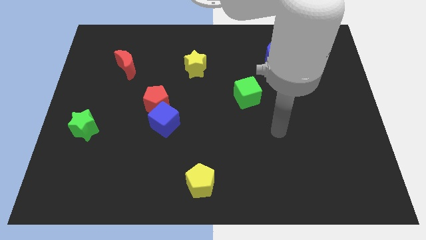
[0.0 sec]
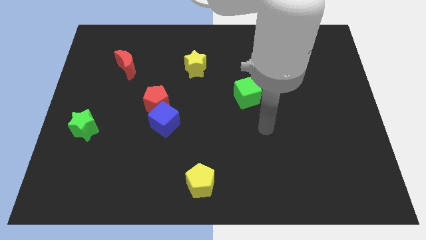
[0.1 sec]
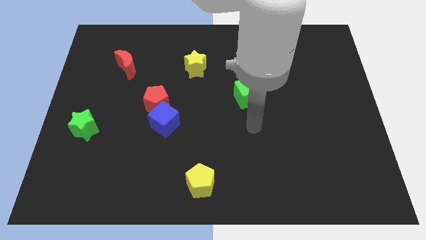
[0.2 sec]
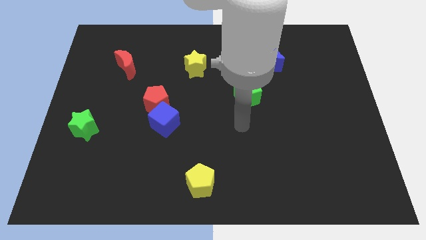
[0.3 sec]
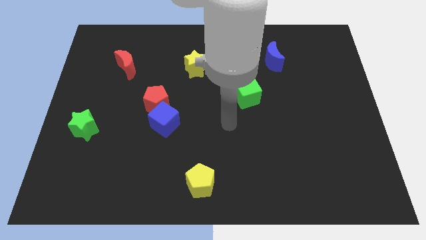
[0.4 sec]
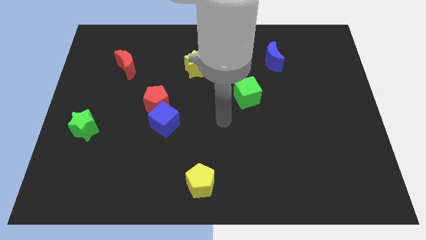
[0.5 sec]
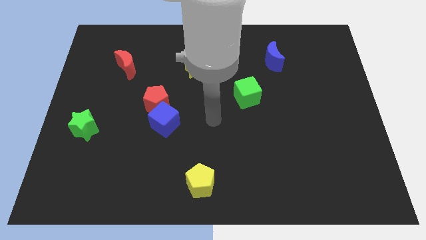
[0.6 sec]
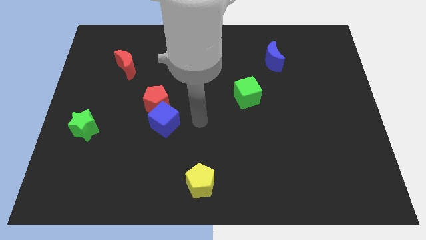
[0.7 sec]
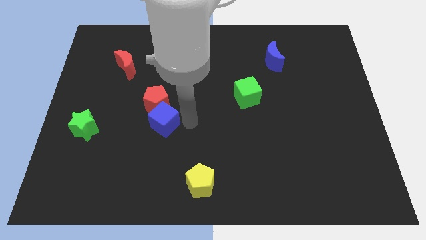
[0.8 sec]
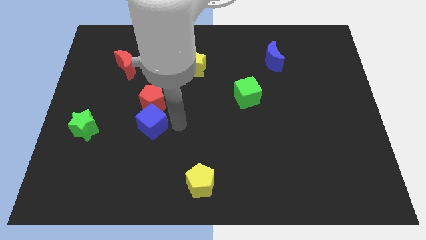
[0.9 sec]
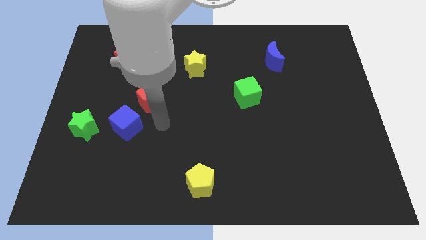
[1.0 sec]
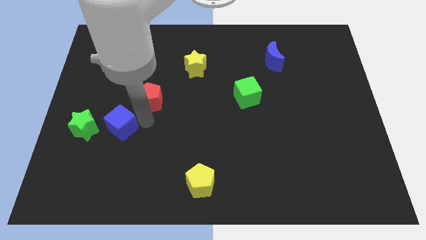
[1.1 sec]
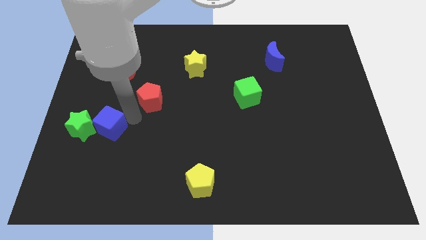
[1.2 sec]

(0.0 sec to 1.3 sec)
move the red pentagon away from the blue cube

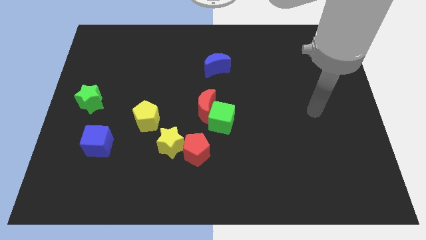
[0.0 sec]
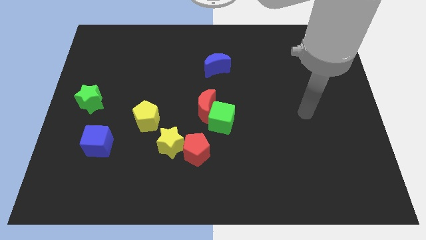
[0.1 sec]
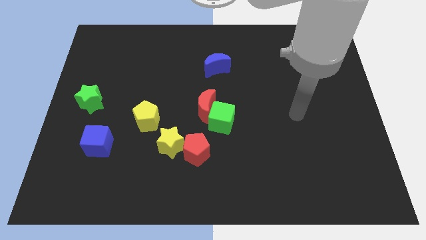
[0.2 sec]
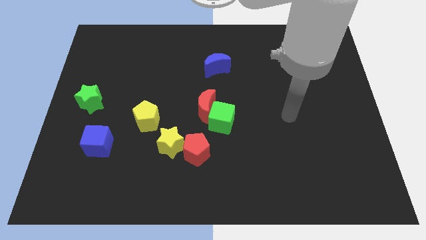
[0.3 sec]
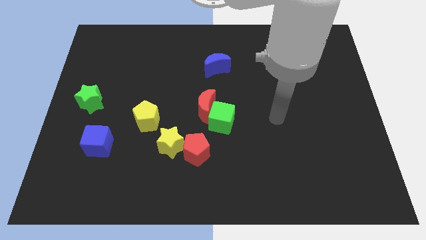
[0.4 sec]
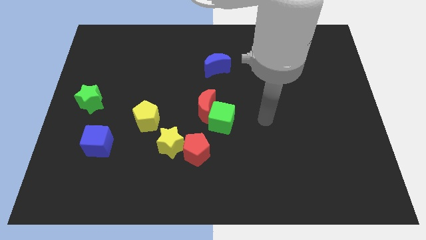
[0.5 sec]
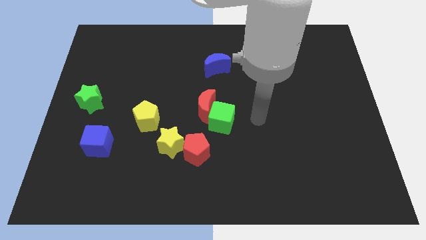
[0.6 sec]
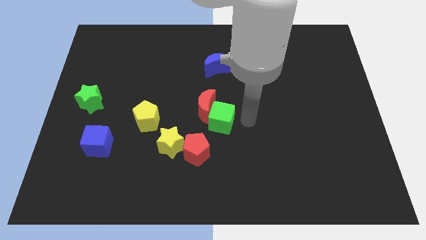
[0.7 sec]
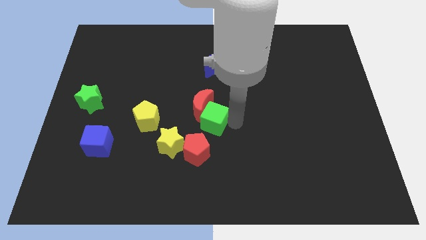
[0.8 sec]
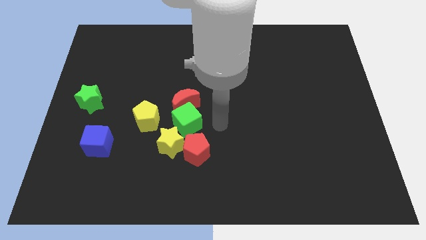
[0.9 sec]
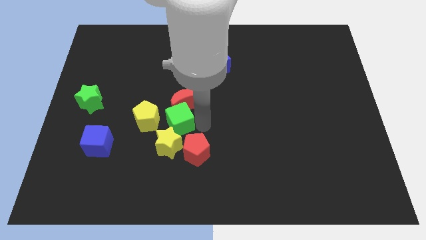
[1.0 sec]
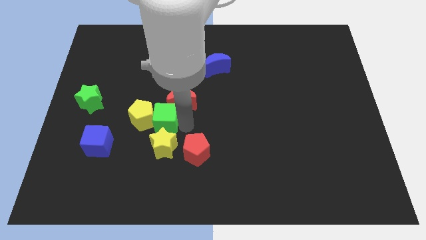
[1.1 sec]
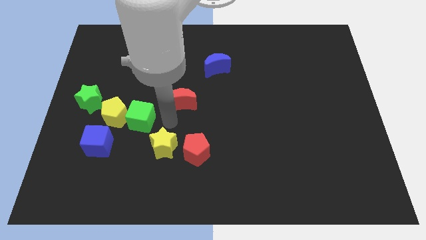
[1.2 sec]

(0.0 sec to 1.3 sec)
pull the red moon apart from the green cube

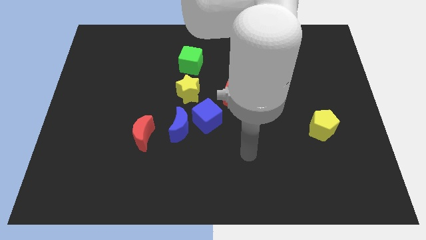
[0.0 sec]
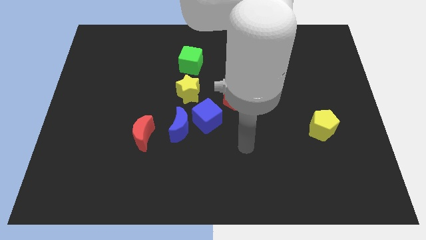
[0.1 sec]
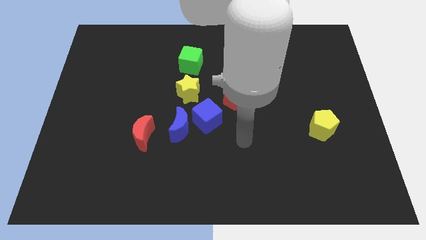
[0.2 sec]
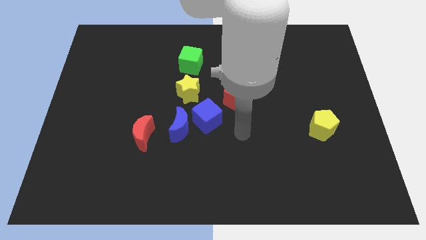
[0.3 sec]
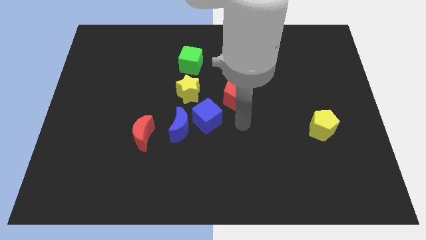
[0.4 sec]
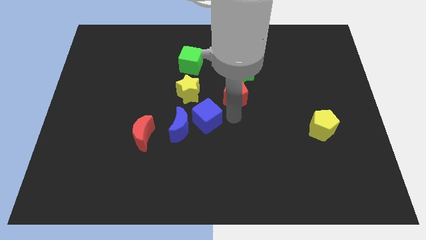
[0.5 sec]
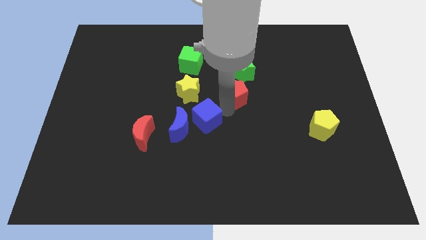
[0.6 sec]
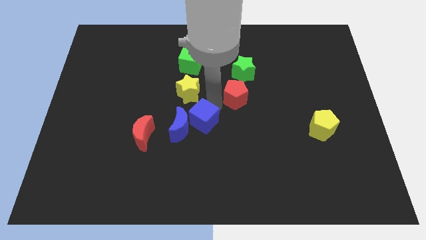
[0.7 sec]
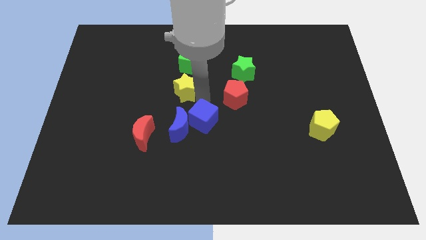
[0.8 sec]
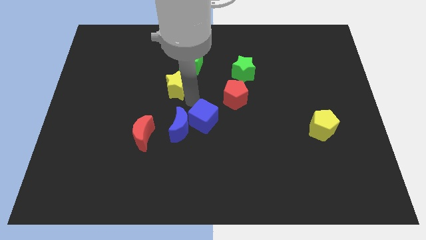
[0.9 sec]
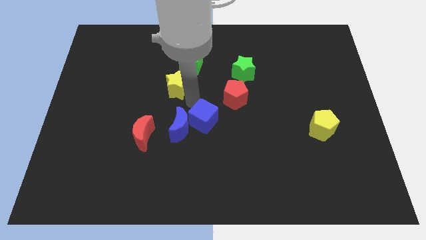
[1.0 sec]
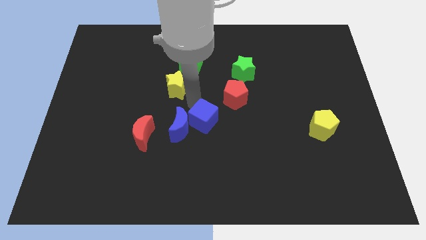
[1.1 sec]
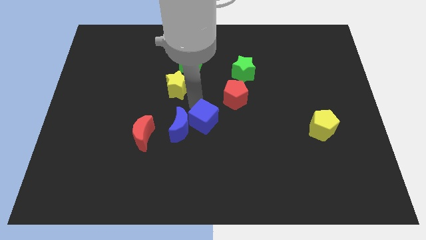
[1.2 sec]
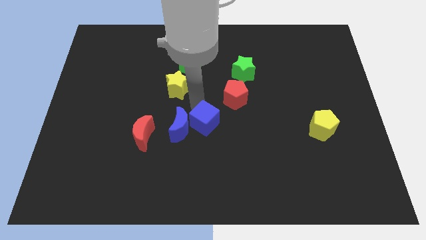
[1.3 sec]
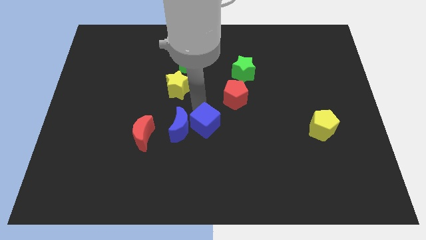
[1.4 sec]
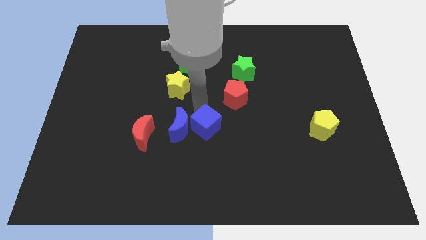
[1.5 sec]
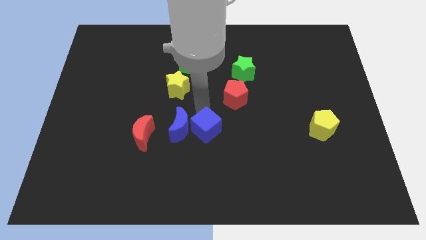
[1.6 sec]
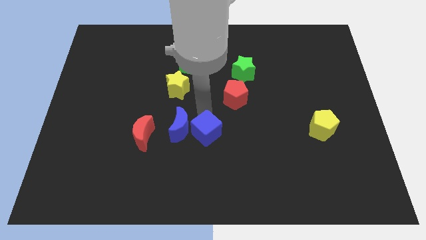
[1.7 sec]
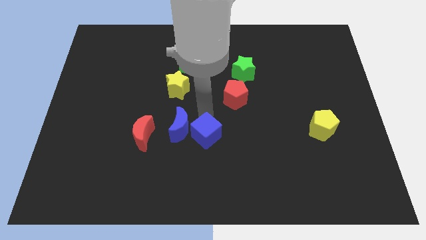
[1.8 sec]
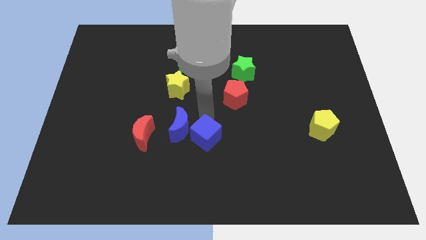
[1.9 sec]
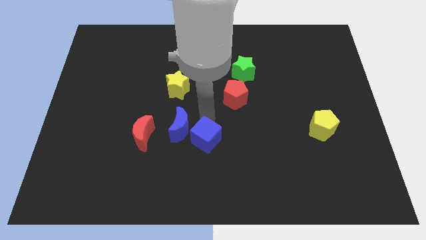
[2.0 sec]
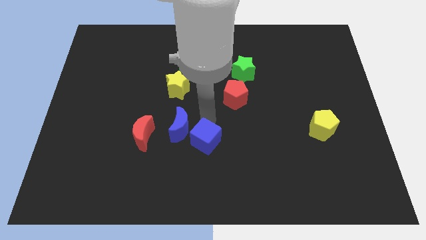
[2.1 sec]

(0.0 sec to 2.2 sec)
pull the blue cube apart from the group

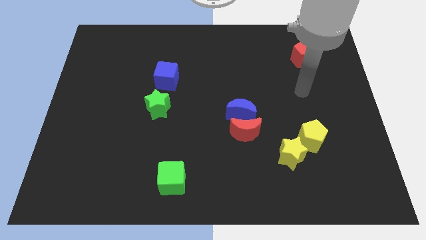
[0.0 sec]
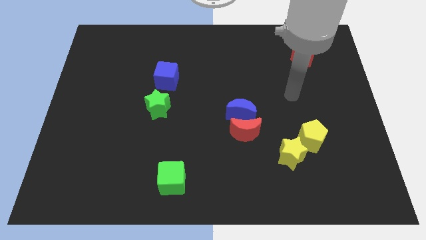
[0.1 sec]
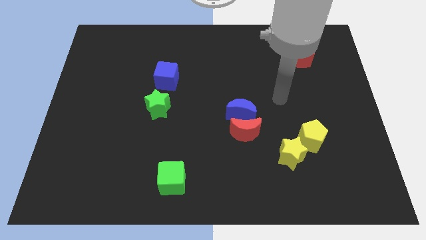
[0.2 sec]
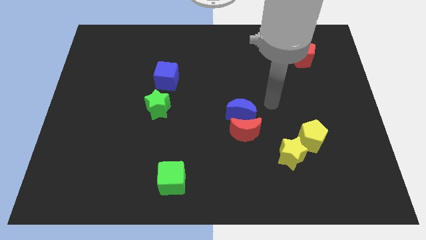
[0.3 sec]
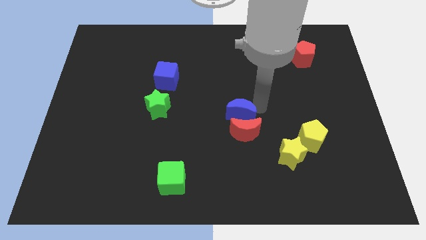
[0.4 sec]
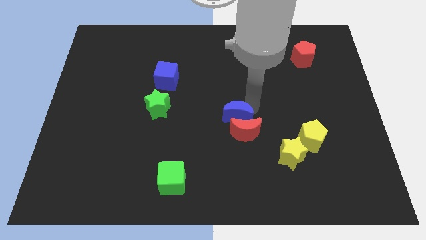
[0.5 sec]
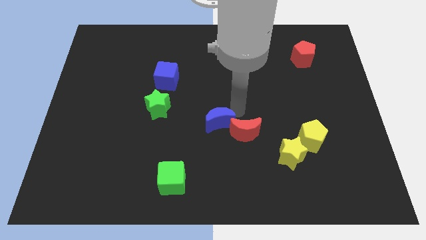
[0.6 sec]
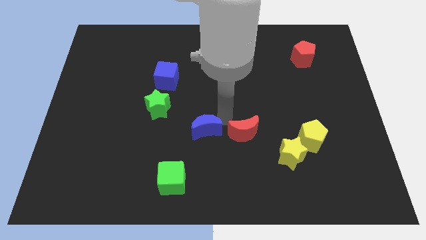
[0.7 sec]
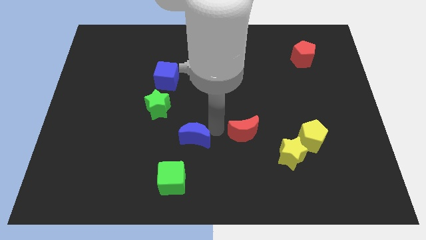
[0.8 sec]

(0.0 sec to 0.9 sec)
separate the red moon from the blue moon

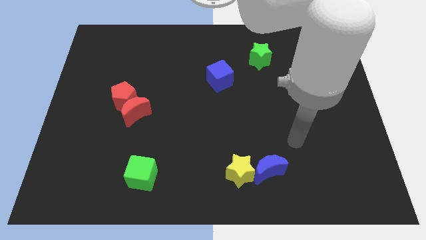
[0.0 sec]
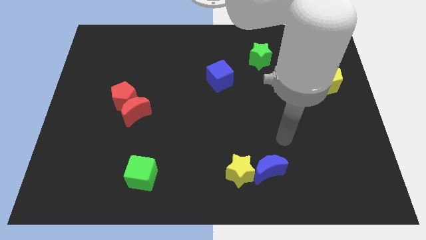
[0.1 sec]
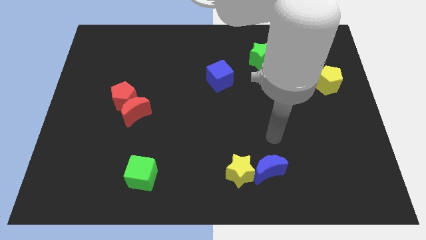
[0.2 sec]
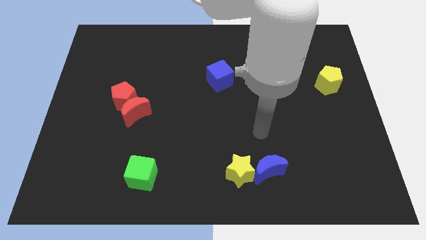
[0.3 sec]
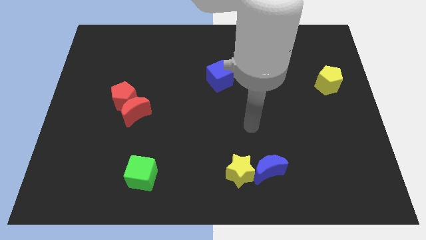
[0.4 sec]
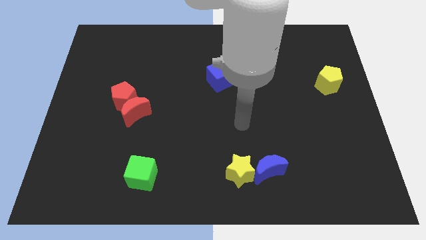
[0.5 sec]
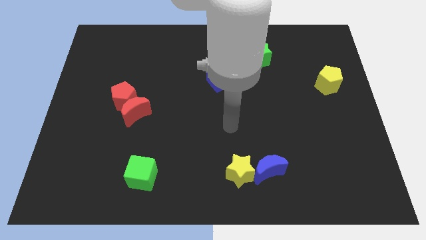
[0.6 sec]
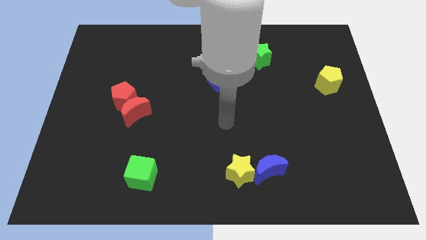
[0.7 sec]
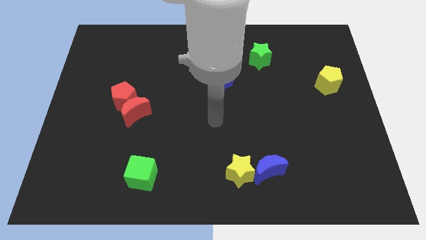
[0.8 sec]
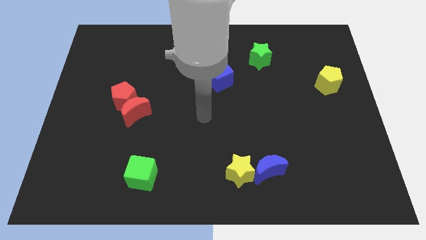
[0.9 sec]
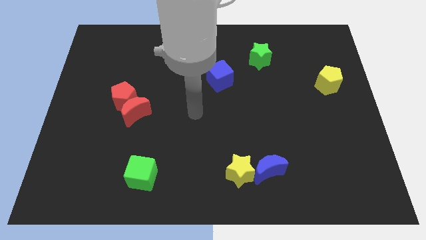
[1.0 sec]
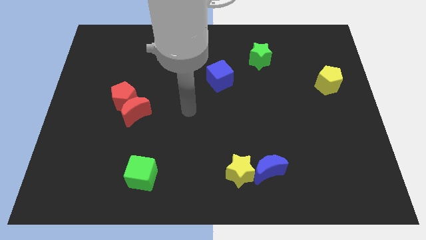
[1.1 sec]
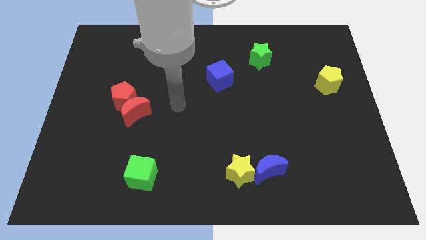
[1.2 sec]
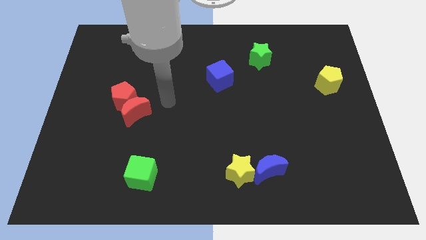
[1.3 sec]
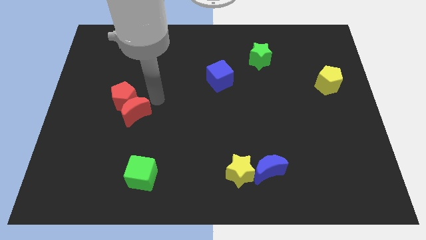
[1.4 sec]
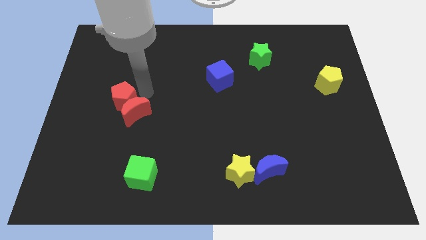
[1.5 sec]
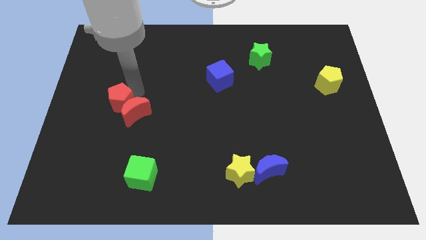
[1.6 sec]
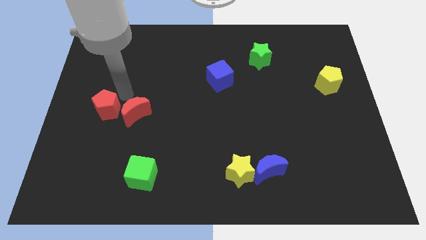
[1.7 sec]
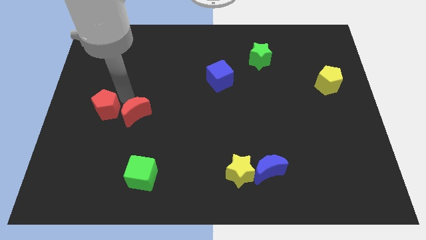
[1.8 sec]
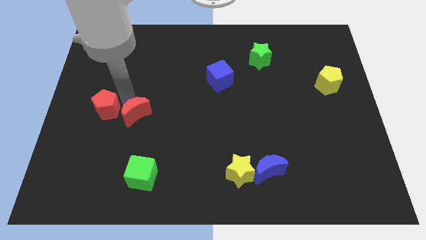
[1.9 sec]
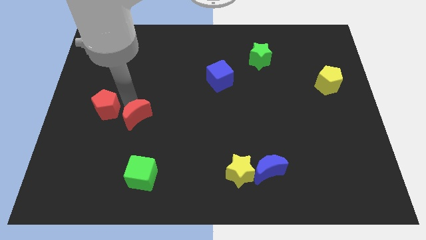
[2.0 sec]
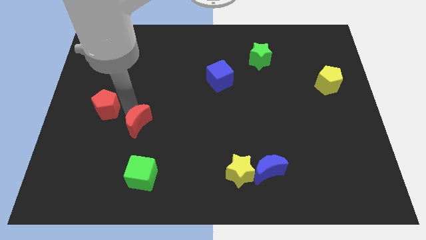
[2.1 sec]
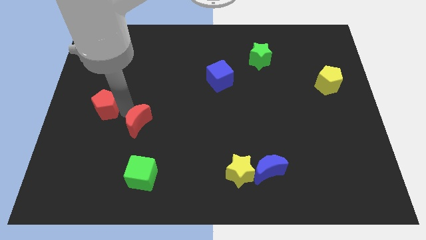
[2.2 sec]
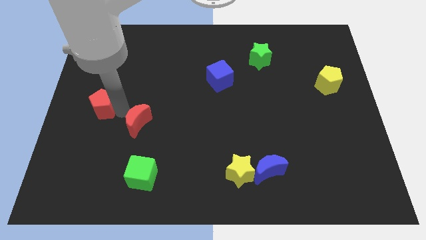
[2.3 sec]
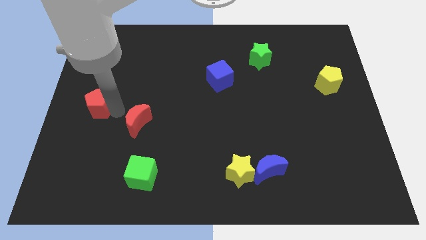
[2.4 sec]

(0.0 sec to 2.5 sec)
separate the red moon from the red pentagon

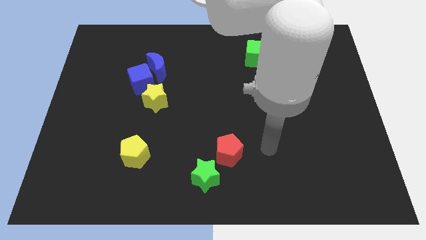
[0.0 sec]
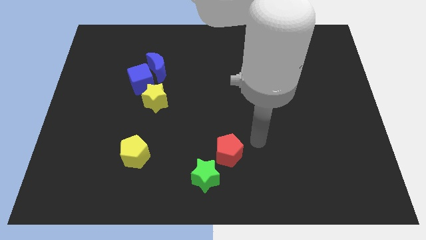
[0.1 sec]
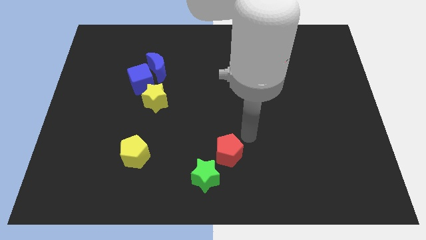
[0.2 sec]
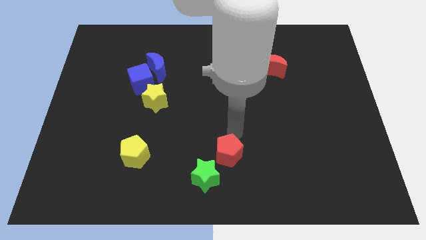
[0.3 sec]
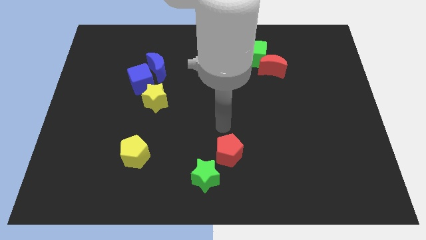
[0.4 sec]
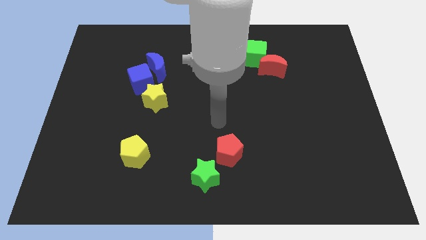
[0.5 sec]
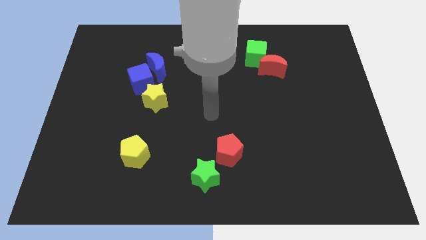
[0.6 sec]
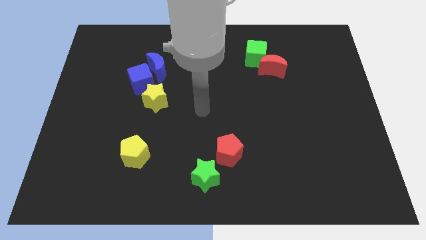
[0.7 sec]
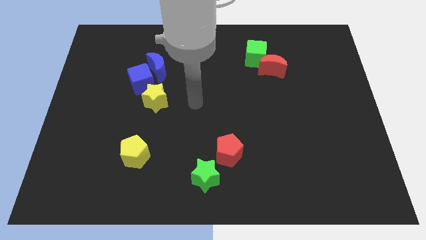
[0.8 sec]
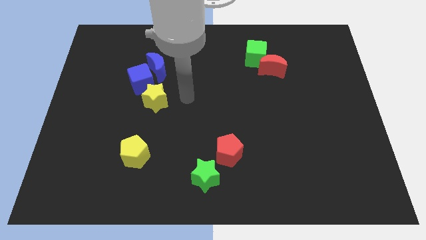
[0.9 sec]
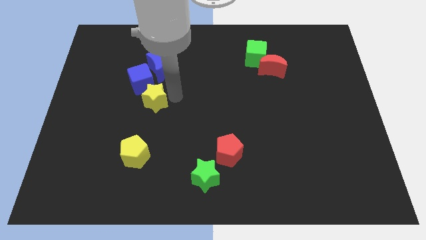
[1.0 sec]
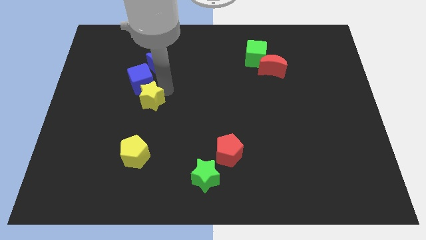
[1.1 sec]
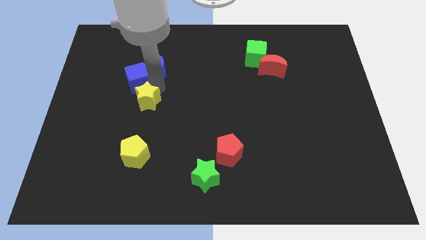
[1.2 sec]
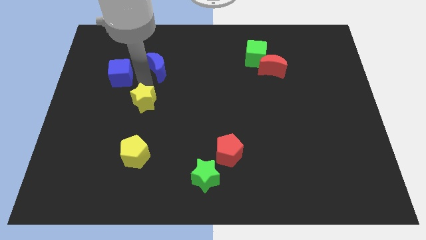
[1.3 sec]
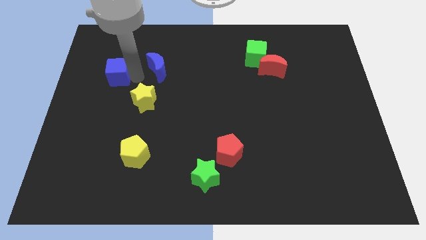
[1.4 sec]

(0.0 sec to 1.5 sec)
pull the blue moon apart from the blue cube
